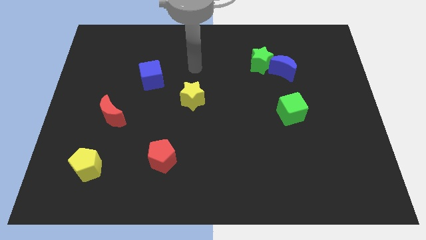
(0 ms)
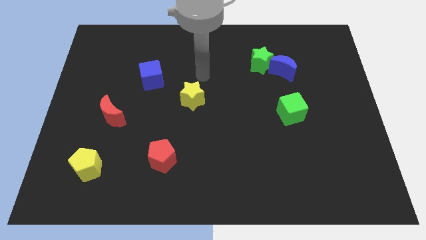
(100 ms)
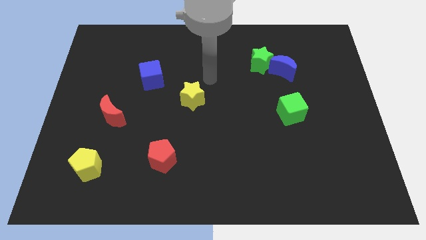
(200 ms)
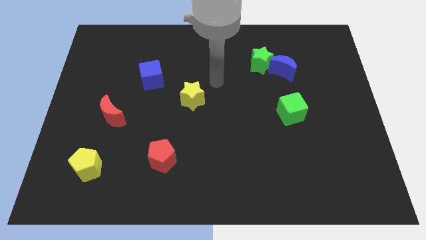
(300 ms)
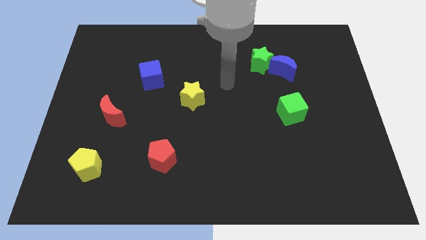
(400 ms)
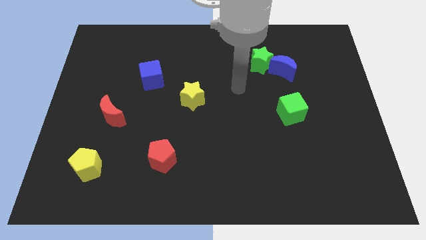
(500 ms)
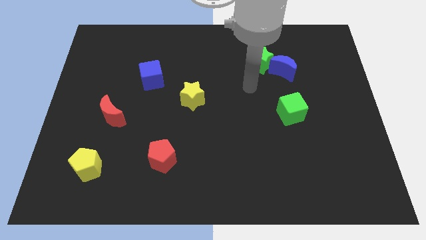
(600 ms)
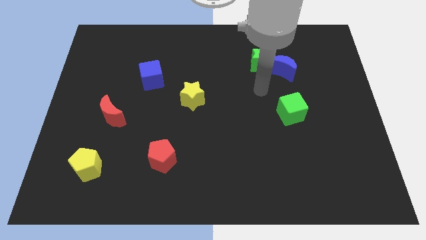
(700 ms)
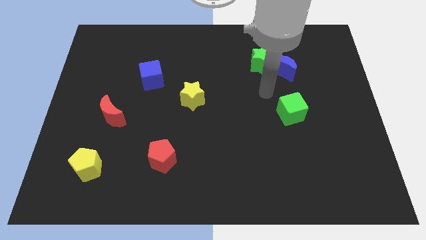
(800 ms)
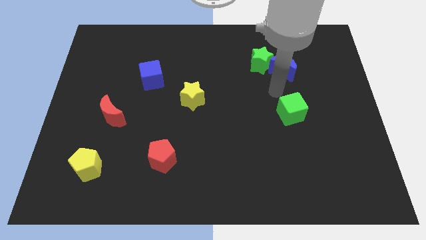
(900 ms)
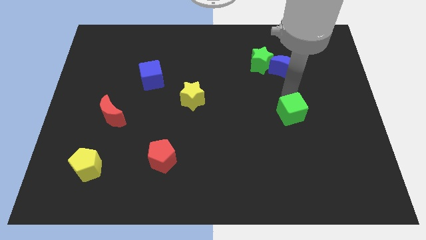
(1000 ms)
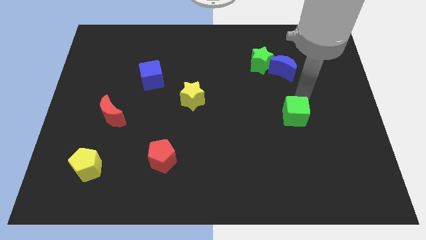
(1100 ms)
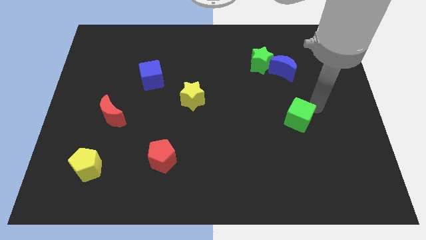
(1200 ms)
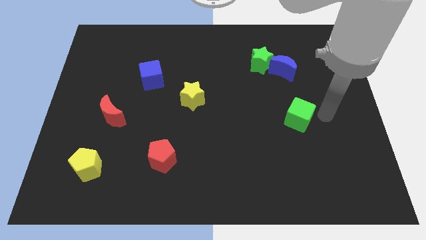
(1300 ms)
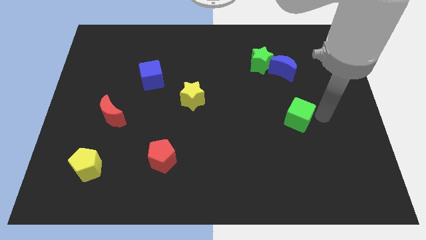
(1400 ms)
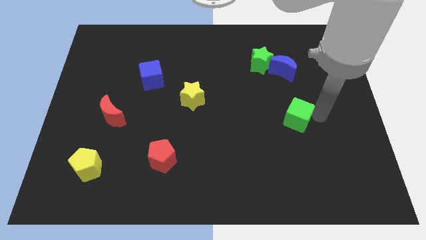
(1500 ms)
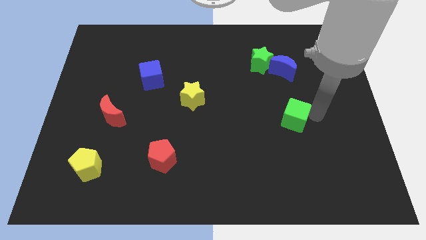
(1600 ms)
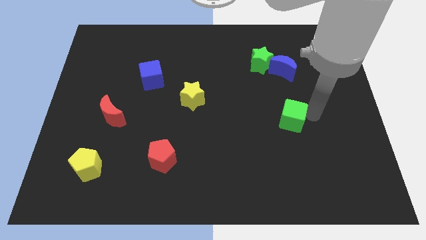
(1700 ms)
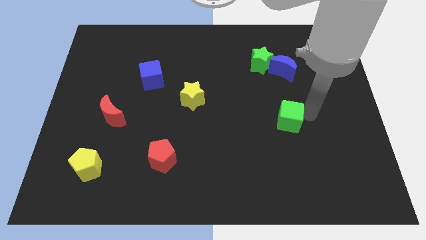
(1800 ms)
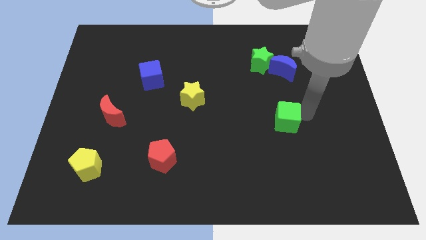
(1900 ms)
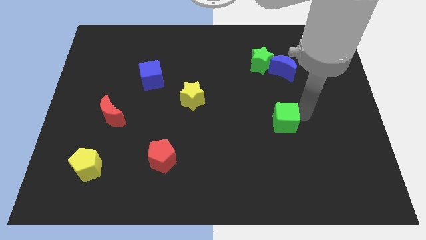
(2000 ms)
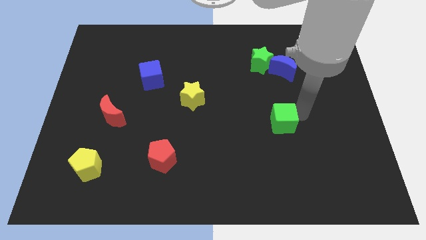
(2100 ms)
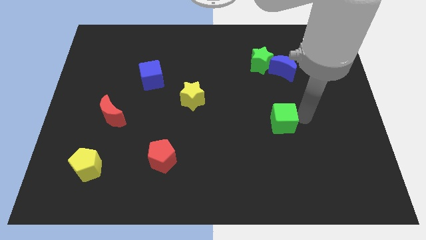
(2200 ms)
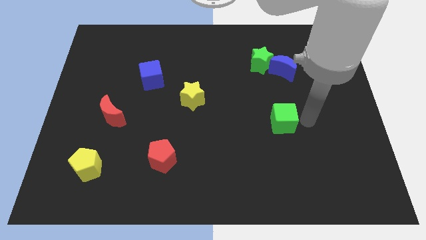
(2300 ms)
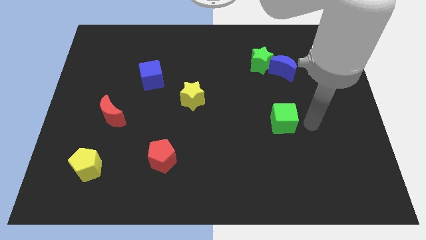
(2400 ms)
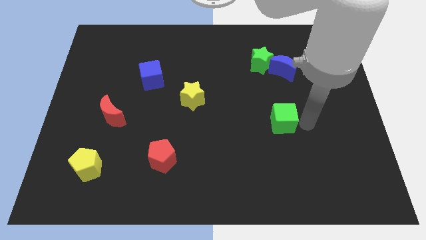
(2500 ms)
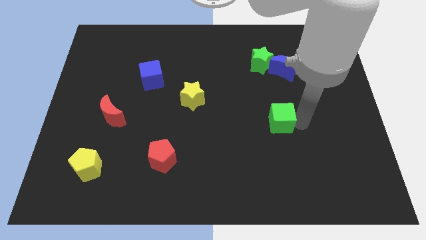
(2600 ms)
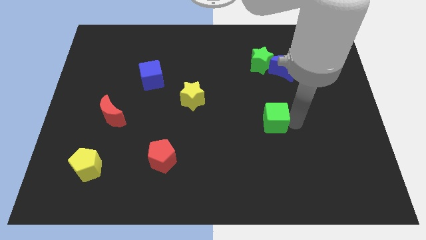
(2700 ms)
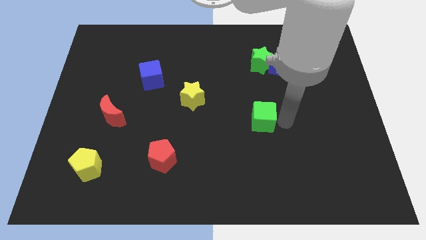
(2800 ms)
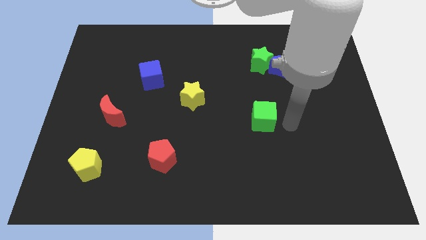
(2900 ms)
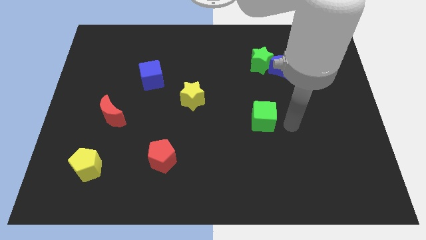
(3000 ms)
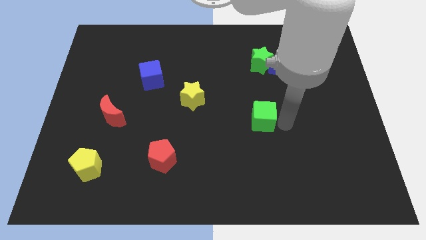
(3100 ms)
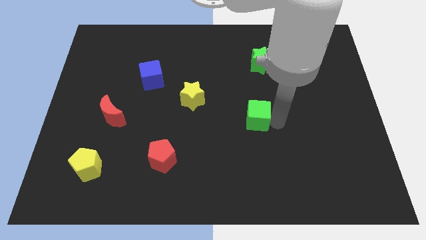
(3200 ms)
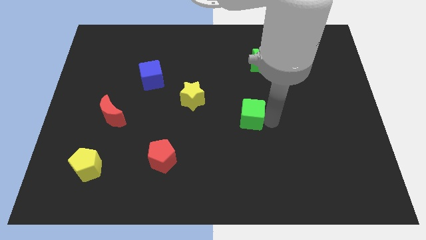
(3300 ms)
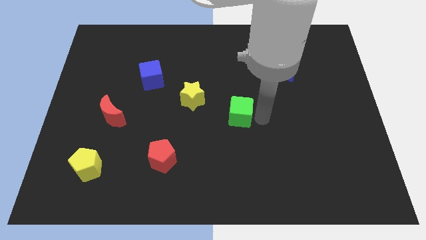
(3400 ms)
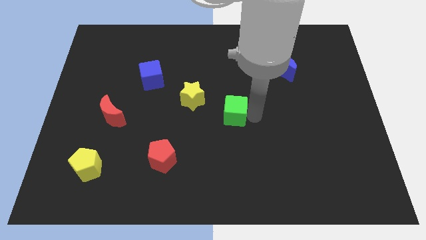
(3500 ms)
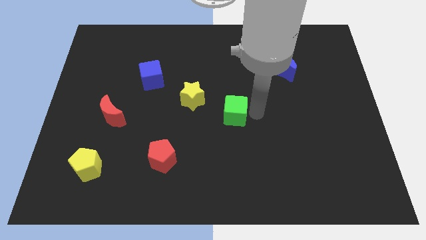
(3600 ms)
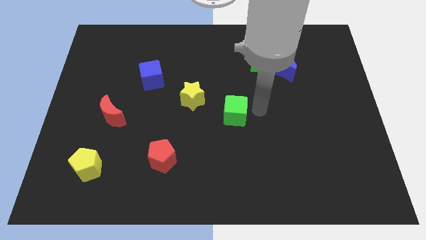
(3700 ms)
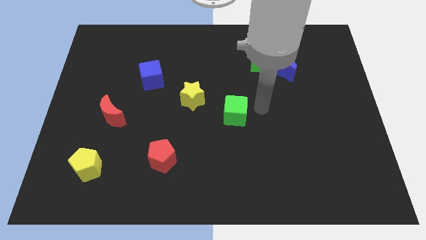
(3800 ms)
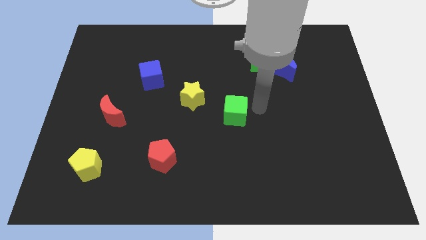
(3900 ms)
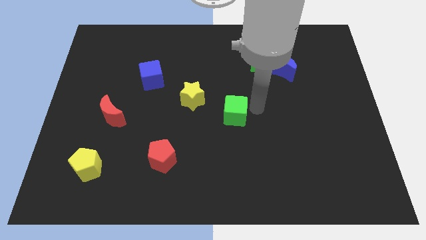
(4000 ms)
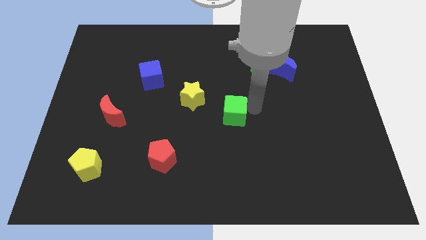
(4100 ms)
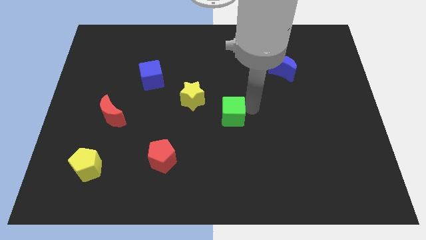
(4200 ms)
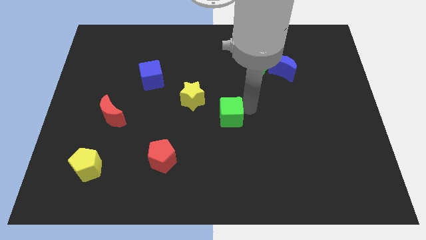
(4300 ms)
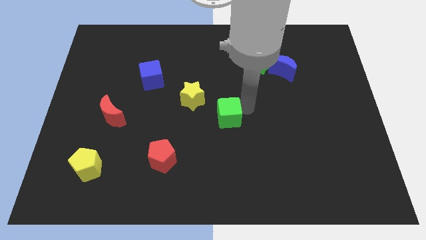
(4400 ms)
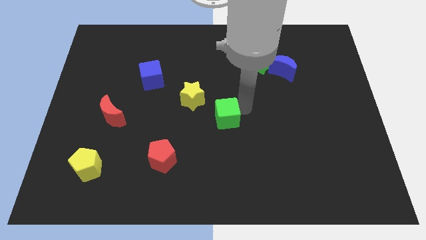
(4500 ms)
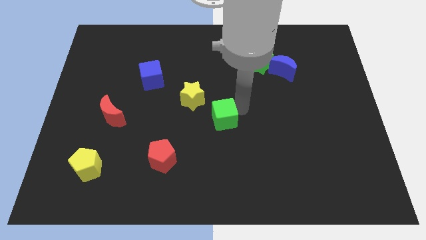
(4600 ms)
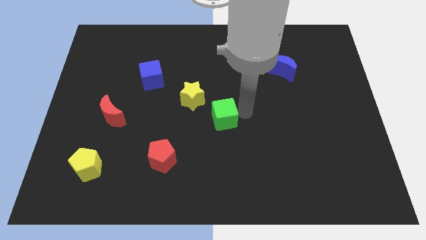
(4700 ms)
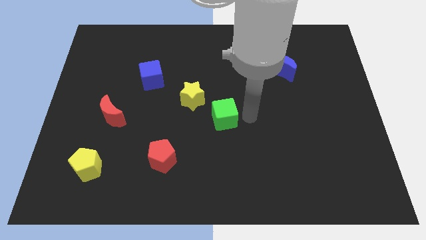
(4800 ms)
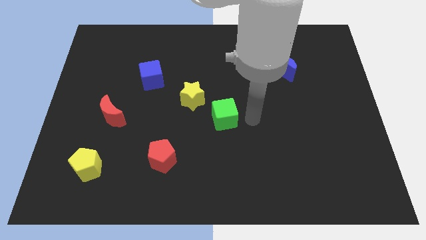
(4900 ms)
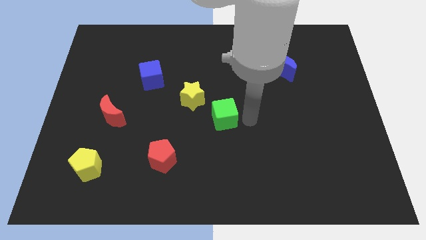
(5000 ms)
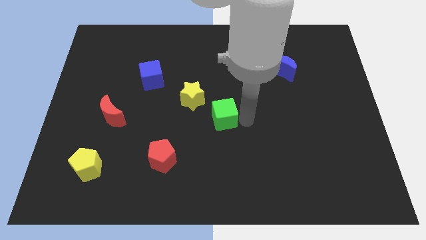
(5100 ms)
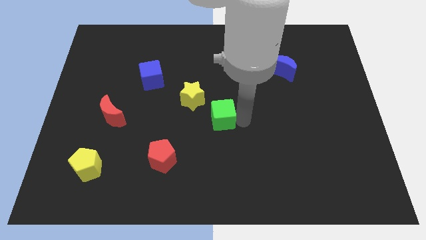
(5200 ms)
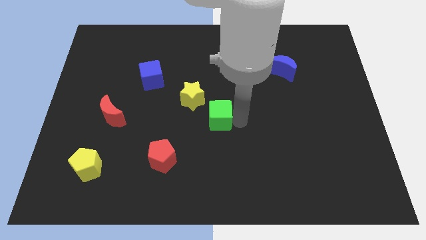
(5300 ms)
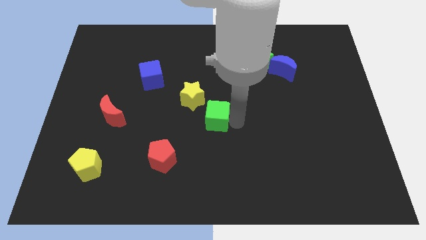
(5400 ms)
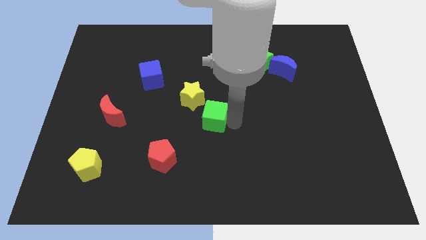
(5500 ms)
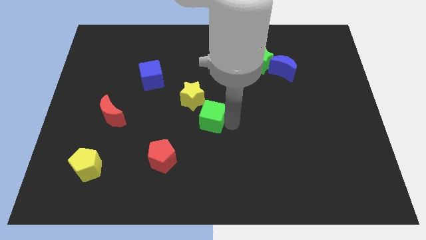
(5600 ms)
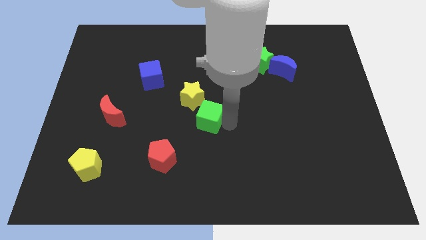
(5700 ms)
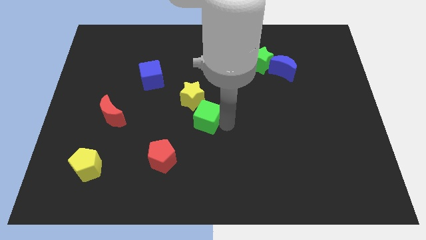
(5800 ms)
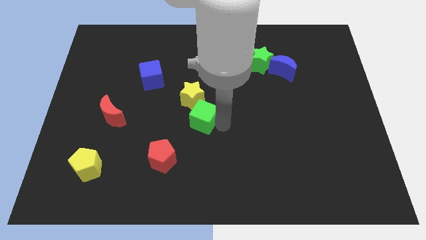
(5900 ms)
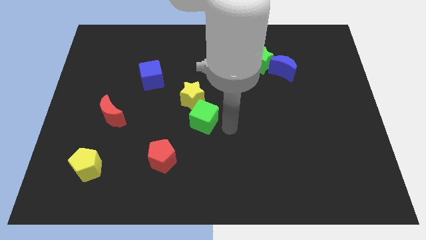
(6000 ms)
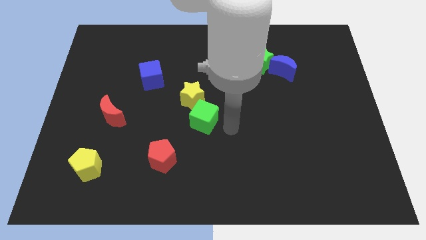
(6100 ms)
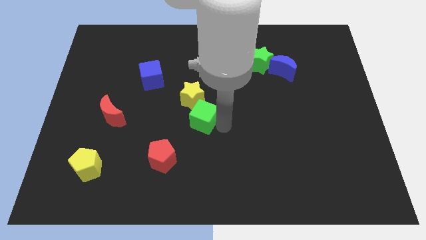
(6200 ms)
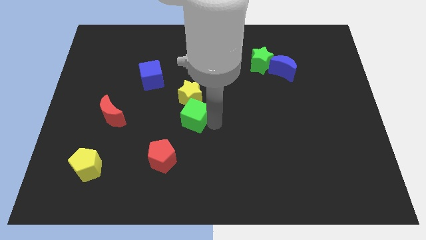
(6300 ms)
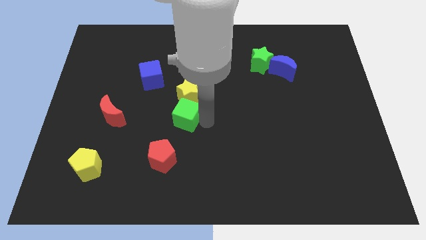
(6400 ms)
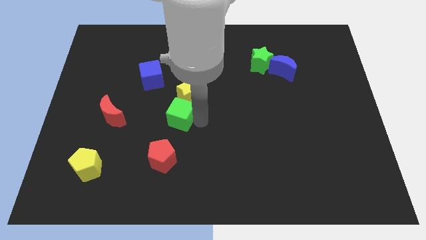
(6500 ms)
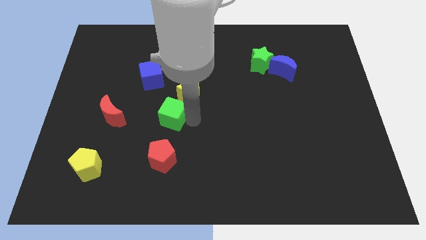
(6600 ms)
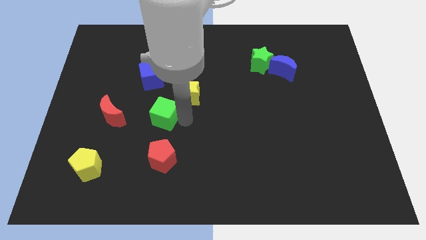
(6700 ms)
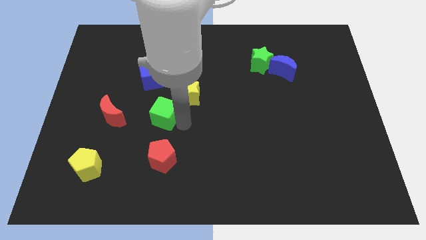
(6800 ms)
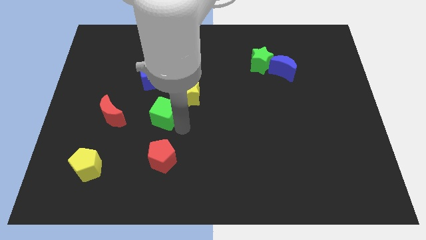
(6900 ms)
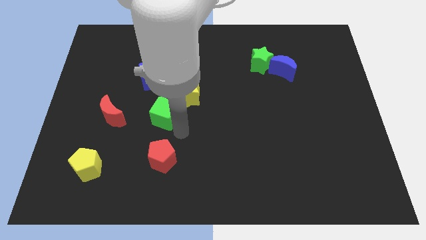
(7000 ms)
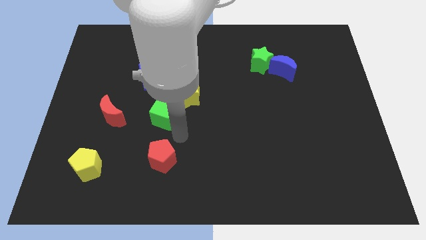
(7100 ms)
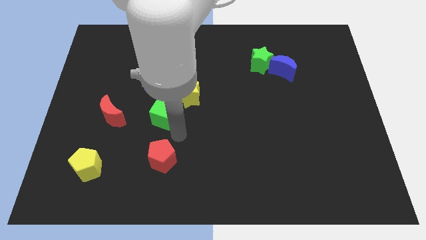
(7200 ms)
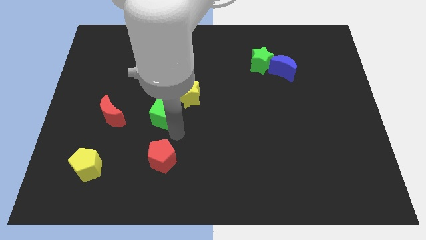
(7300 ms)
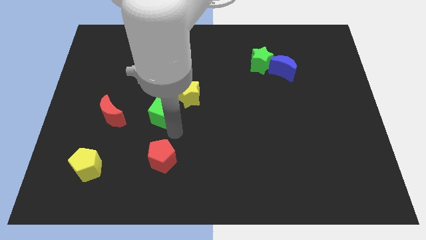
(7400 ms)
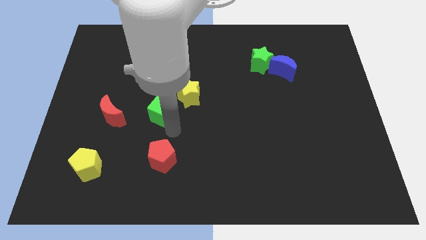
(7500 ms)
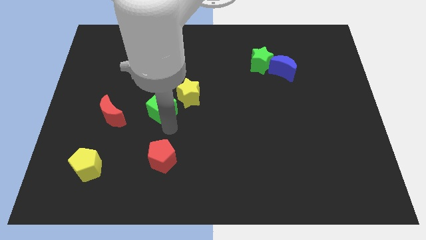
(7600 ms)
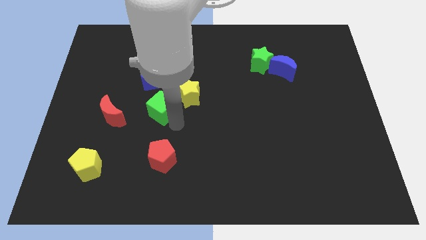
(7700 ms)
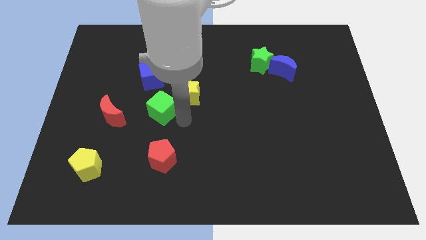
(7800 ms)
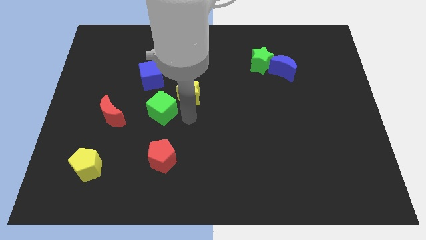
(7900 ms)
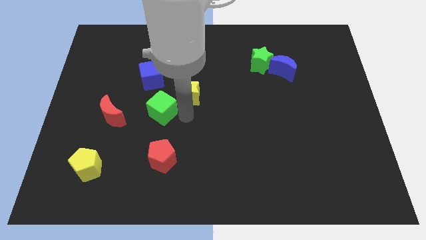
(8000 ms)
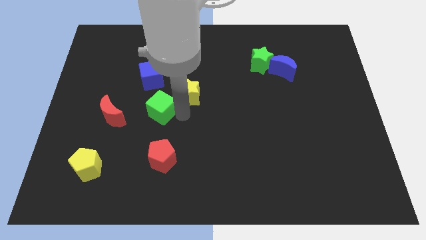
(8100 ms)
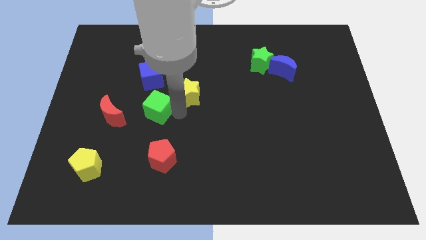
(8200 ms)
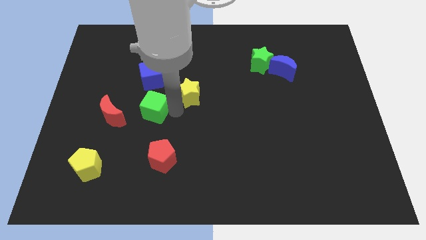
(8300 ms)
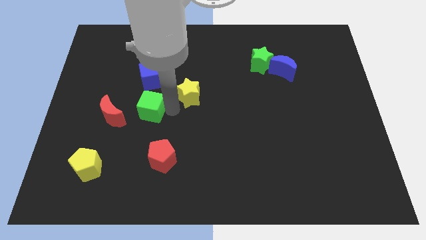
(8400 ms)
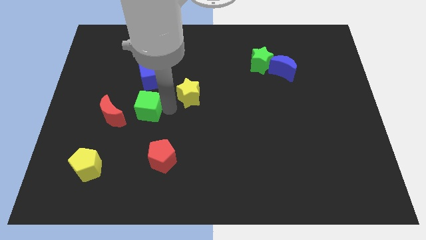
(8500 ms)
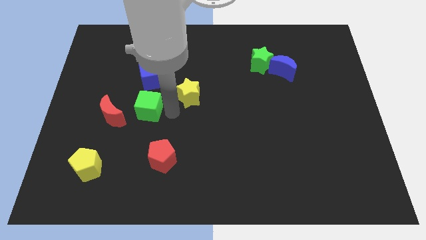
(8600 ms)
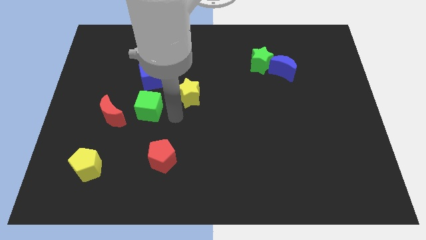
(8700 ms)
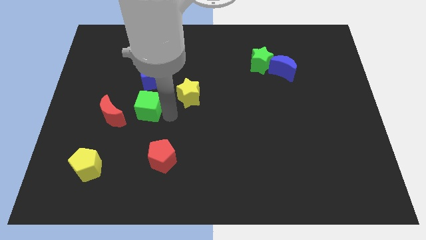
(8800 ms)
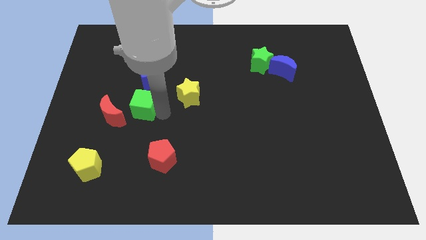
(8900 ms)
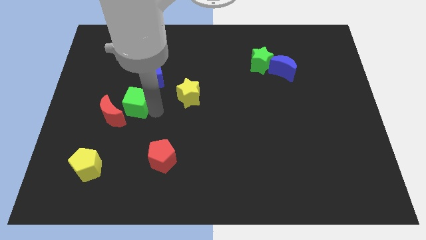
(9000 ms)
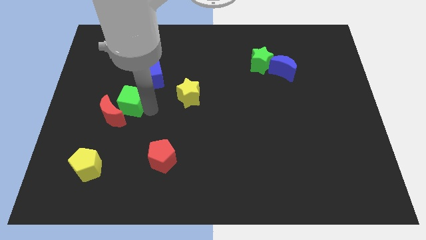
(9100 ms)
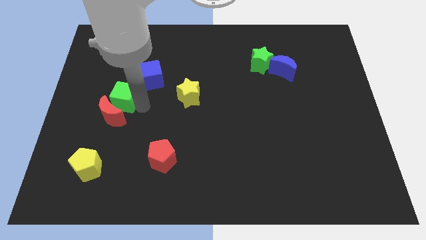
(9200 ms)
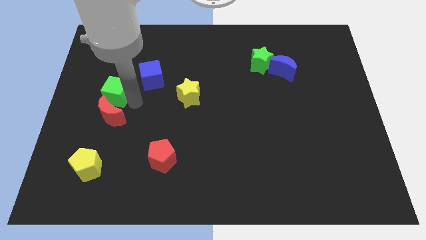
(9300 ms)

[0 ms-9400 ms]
put the green cube diagonally up and to the left of the red moon
